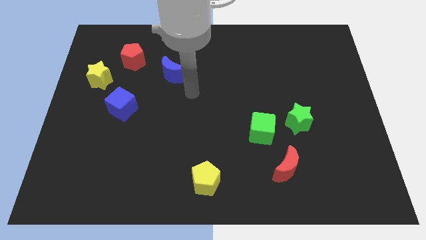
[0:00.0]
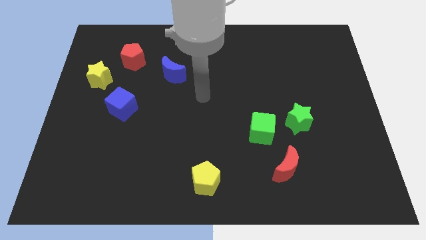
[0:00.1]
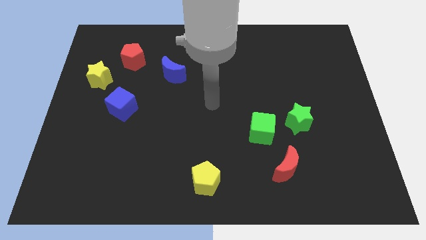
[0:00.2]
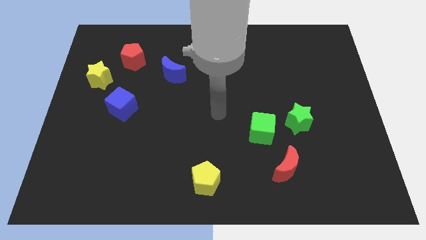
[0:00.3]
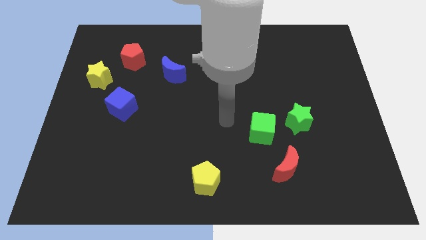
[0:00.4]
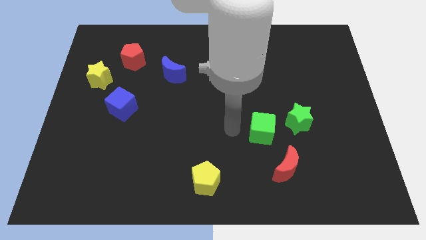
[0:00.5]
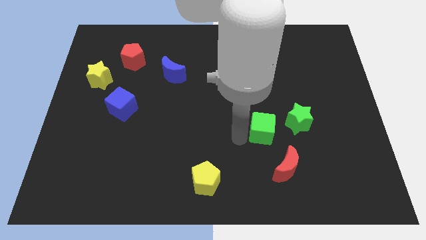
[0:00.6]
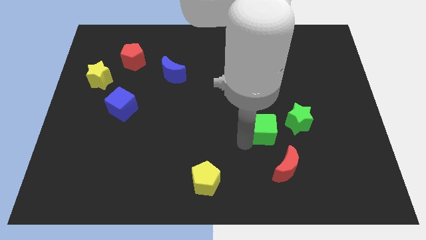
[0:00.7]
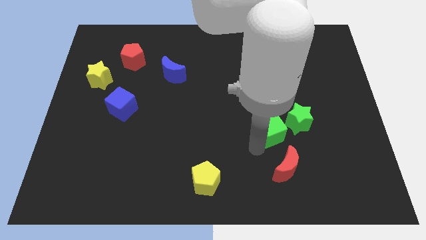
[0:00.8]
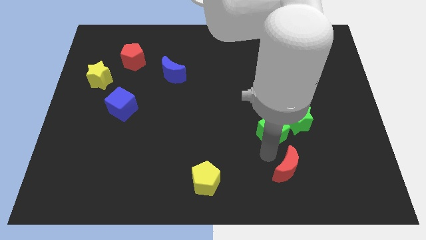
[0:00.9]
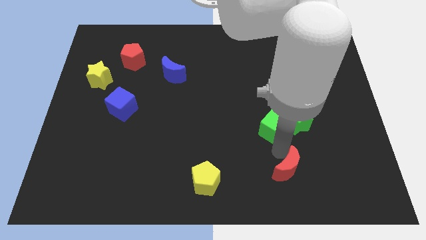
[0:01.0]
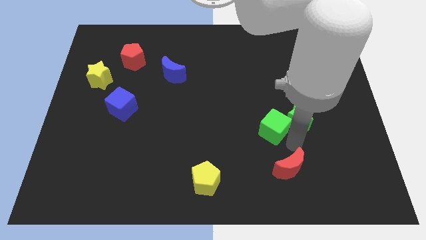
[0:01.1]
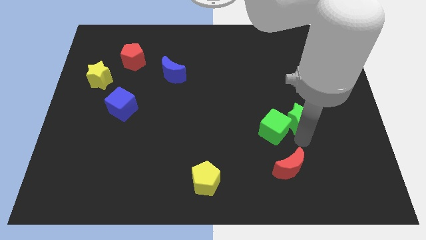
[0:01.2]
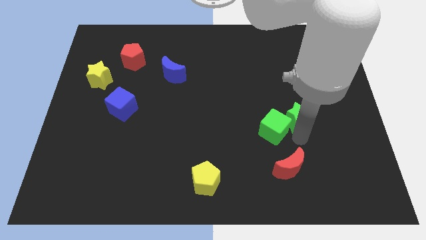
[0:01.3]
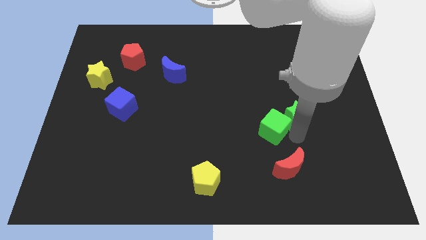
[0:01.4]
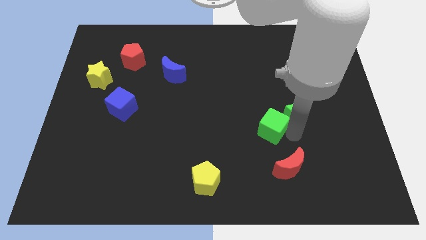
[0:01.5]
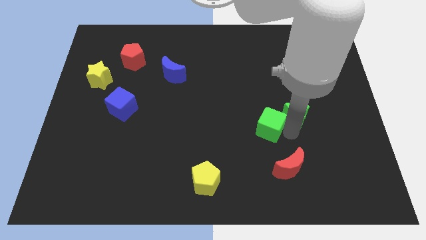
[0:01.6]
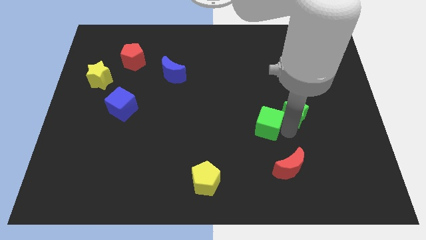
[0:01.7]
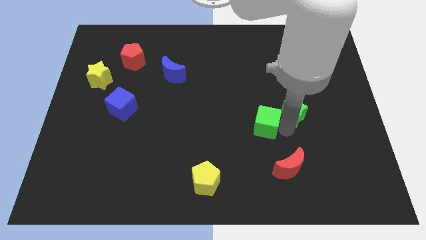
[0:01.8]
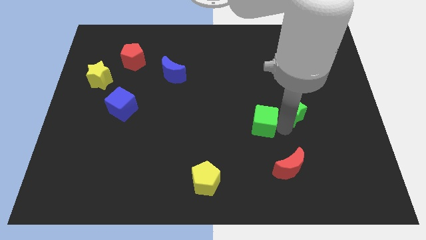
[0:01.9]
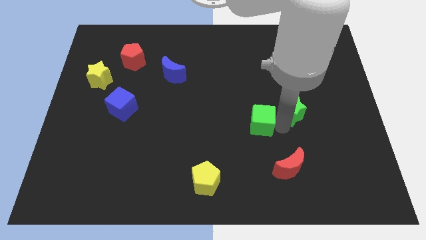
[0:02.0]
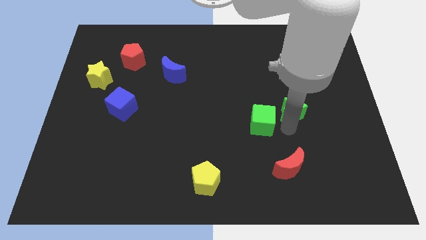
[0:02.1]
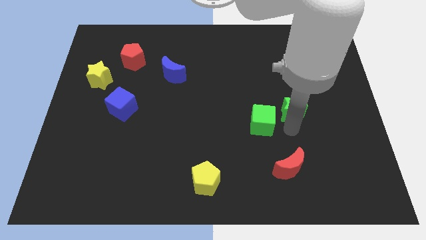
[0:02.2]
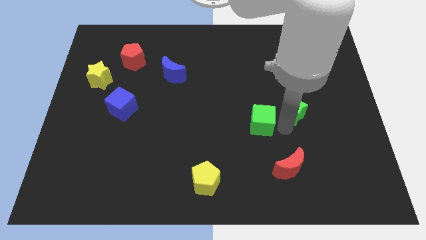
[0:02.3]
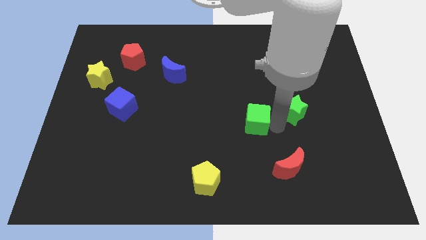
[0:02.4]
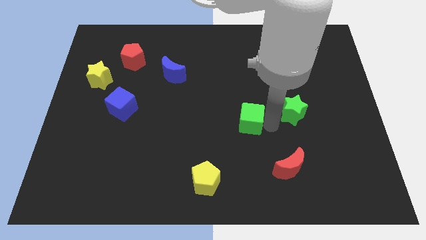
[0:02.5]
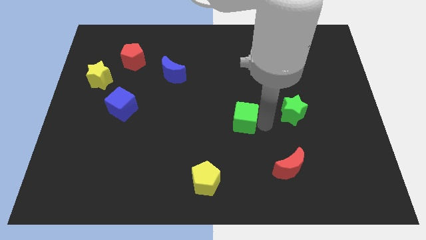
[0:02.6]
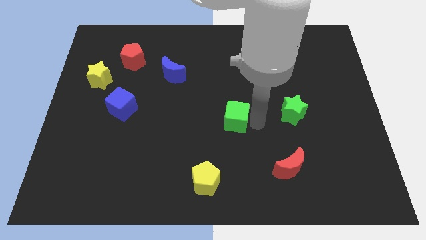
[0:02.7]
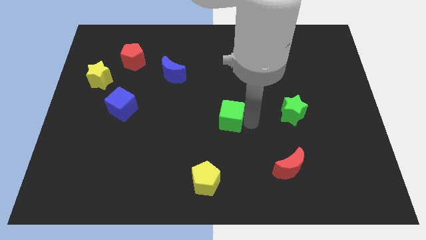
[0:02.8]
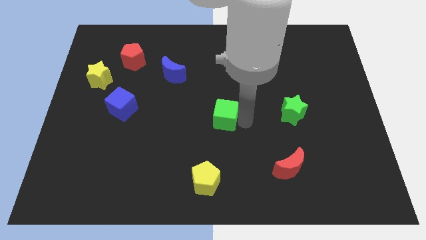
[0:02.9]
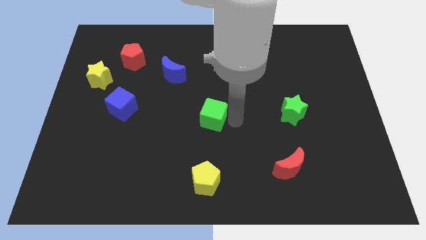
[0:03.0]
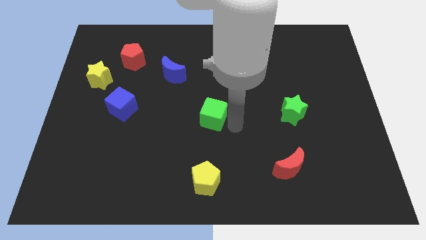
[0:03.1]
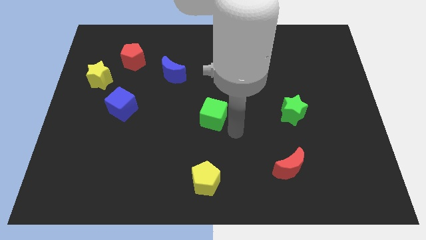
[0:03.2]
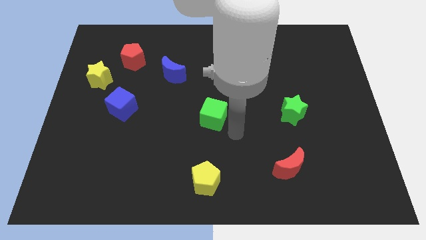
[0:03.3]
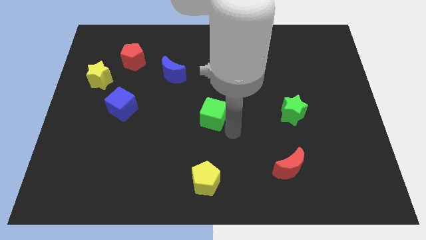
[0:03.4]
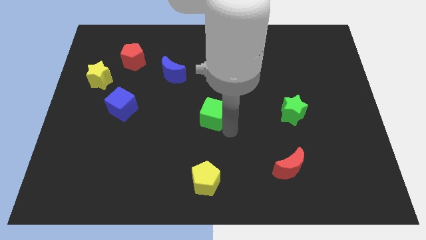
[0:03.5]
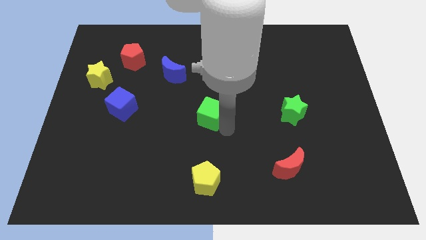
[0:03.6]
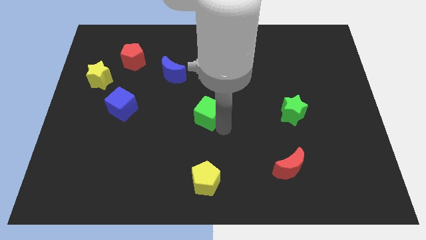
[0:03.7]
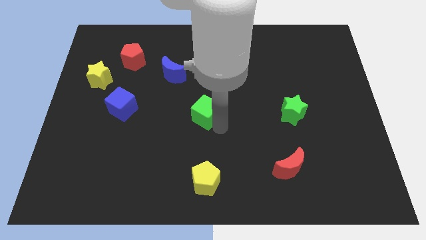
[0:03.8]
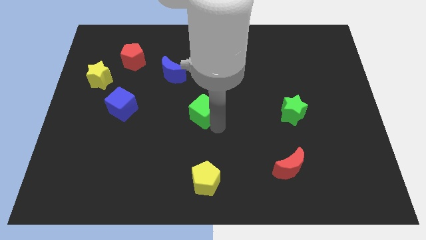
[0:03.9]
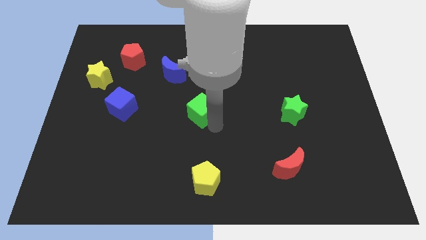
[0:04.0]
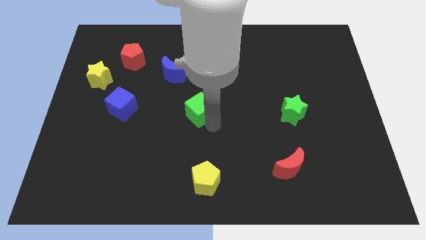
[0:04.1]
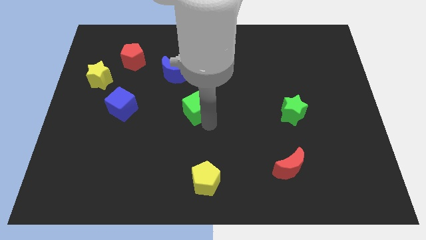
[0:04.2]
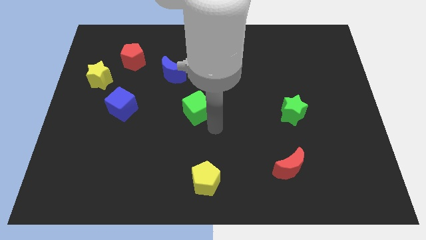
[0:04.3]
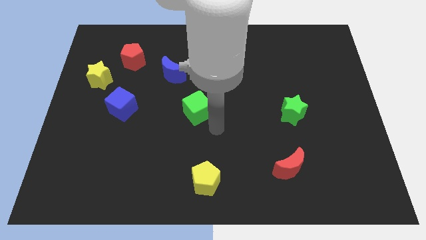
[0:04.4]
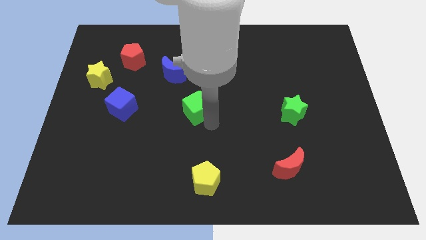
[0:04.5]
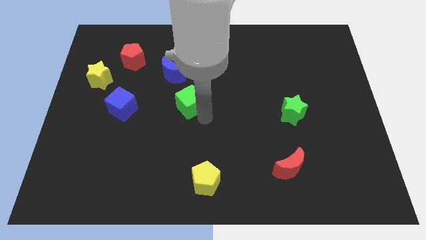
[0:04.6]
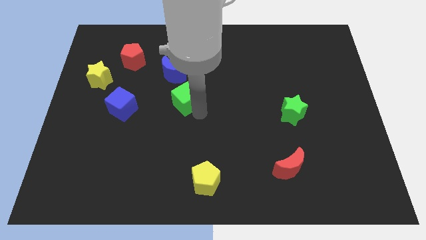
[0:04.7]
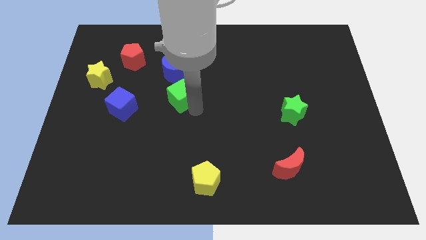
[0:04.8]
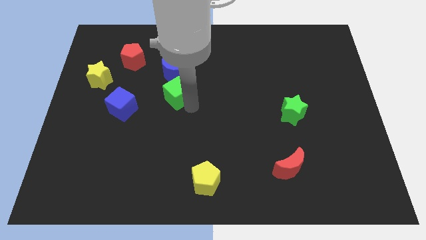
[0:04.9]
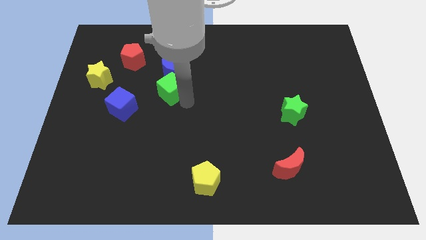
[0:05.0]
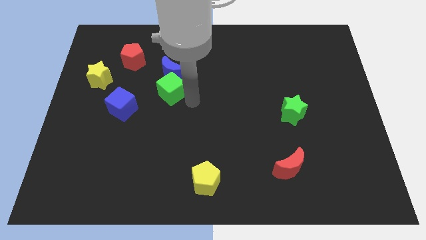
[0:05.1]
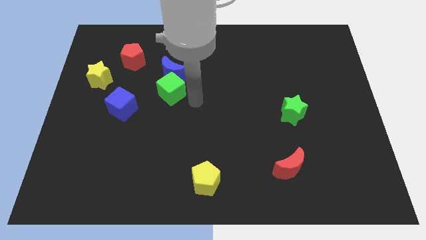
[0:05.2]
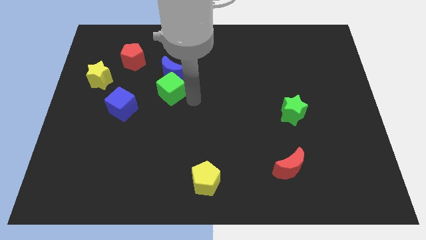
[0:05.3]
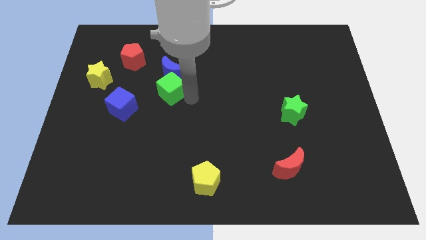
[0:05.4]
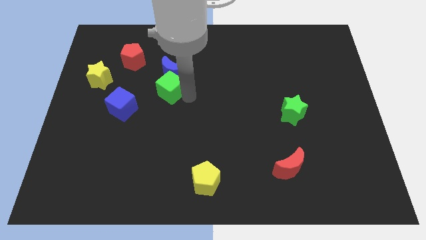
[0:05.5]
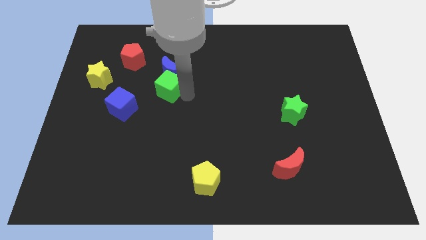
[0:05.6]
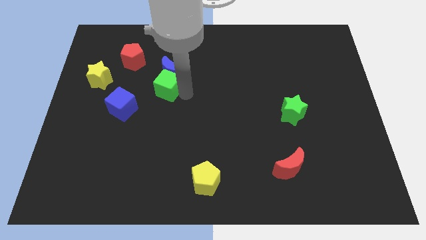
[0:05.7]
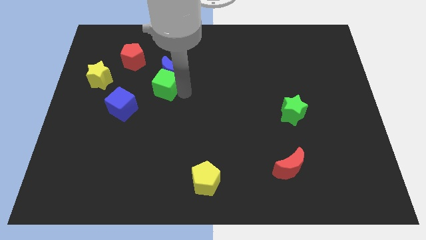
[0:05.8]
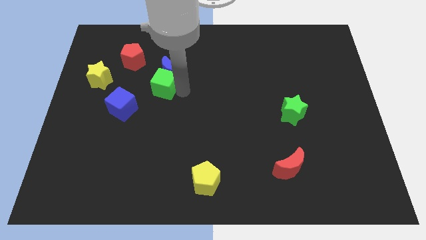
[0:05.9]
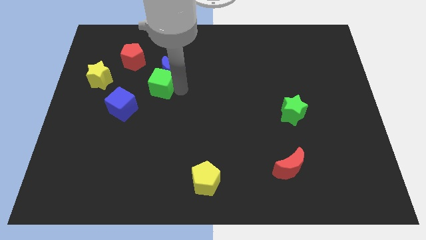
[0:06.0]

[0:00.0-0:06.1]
slide the green cube just right of the yellow star

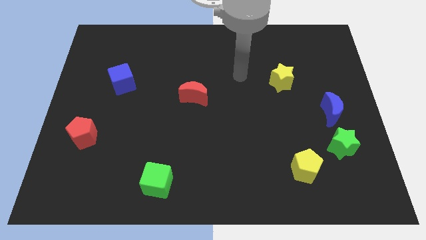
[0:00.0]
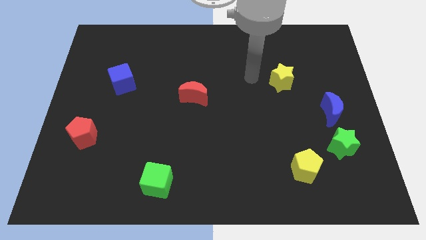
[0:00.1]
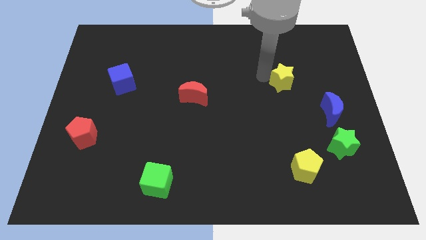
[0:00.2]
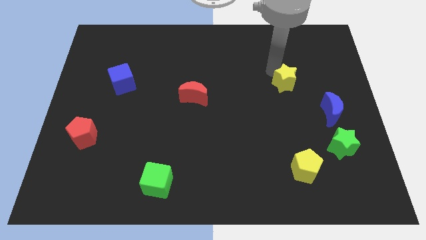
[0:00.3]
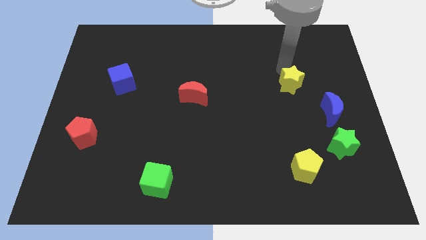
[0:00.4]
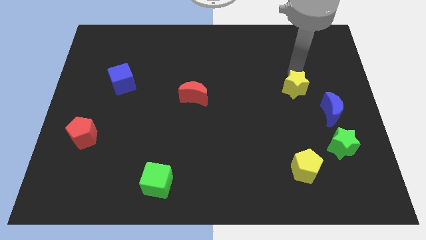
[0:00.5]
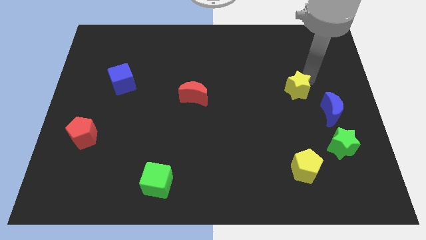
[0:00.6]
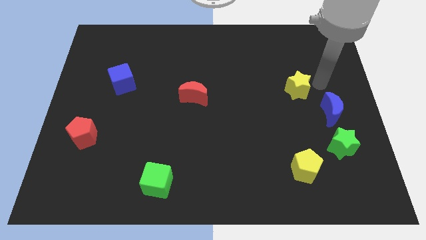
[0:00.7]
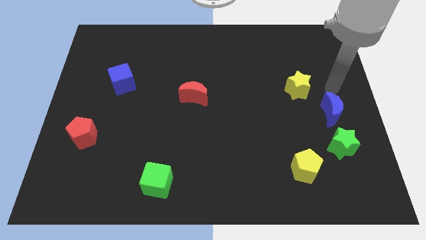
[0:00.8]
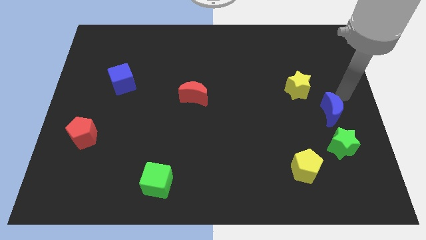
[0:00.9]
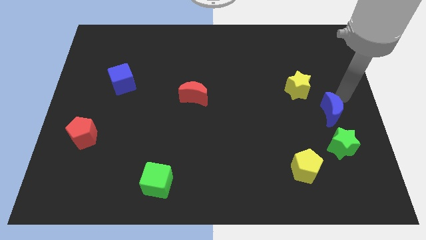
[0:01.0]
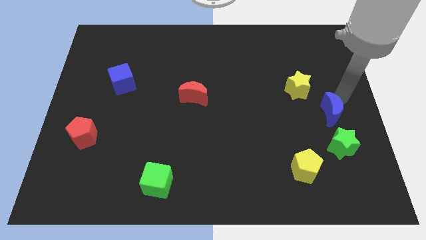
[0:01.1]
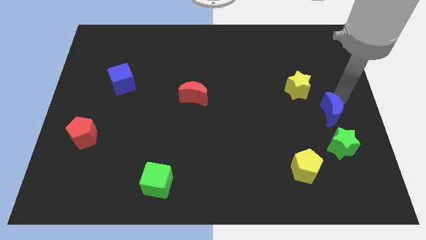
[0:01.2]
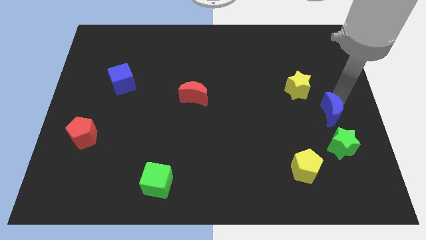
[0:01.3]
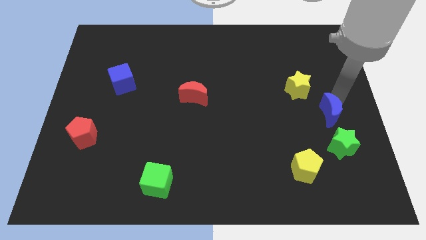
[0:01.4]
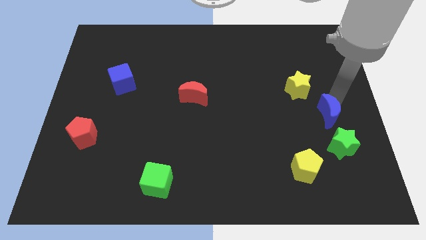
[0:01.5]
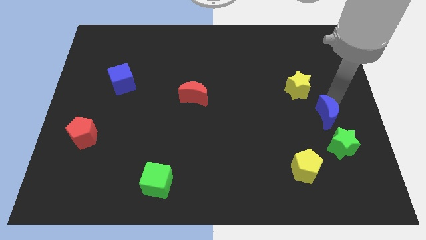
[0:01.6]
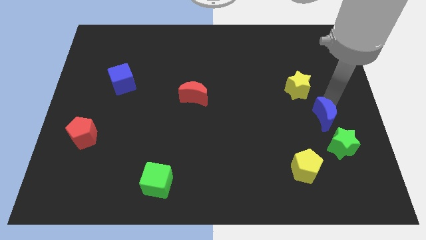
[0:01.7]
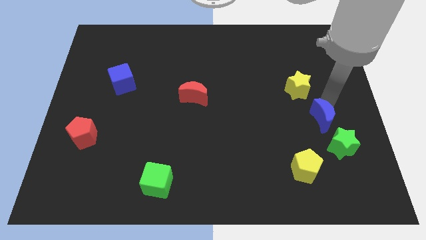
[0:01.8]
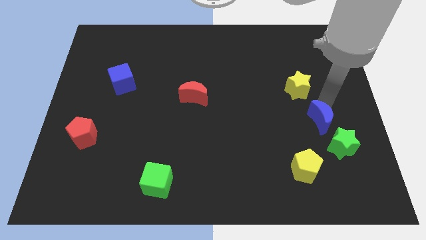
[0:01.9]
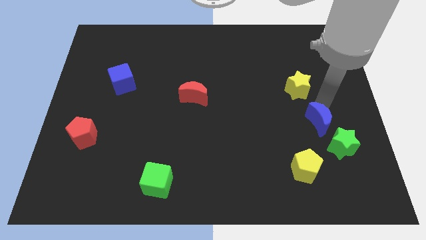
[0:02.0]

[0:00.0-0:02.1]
put the blue moon above the yellow pentagon
